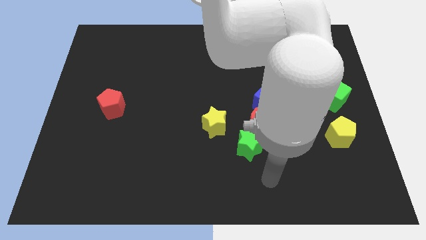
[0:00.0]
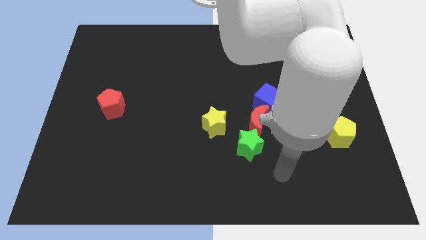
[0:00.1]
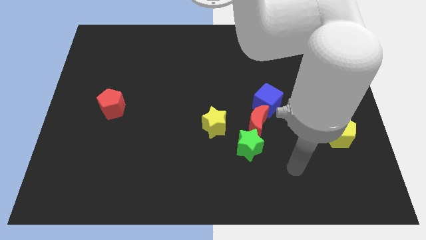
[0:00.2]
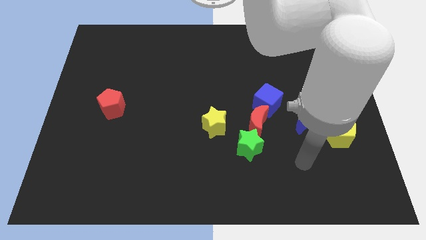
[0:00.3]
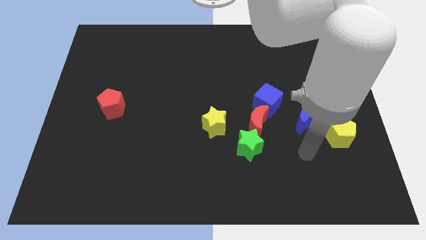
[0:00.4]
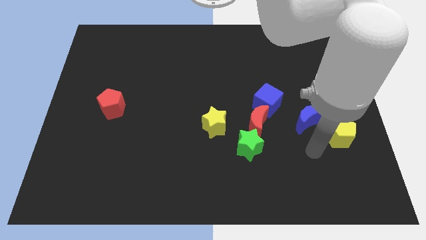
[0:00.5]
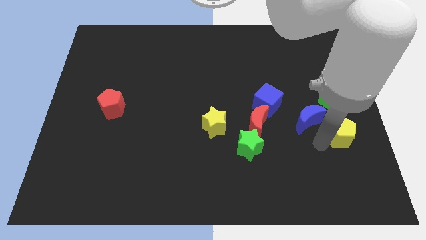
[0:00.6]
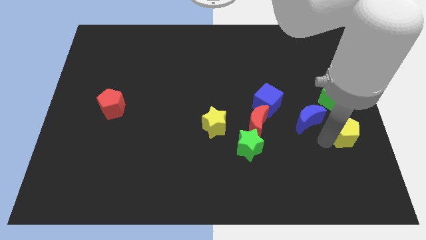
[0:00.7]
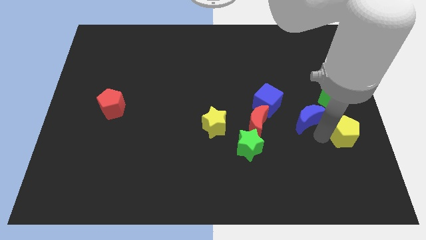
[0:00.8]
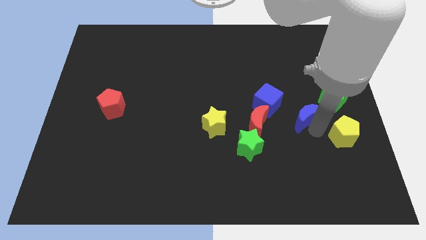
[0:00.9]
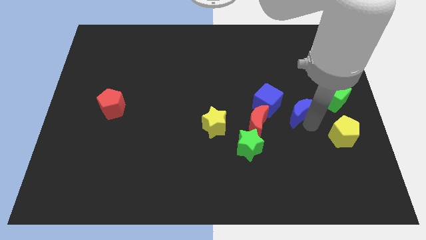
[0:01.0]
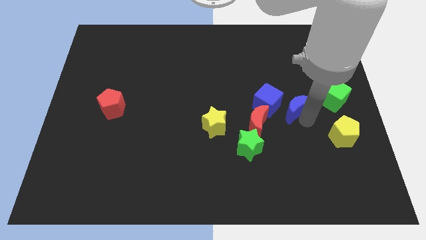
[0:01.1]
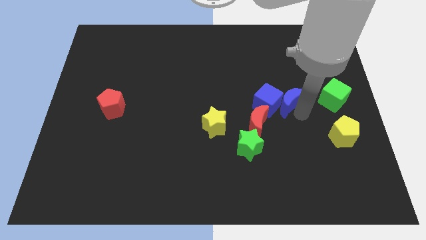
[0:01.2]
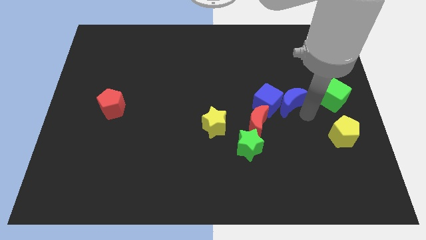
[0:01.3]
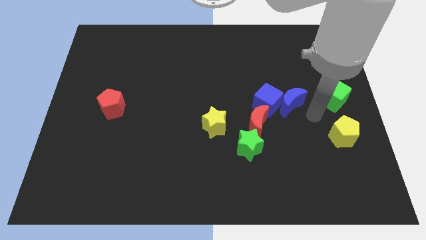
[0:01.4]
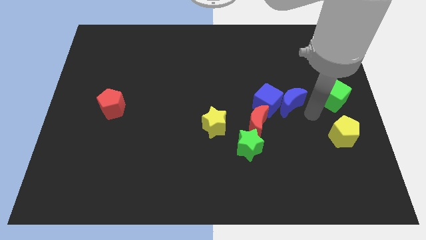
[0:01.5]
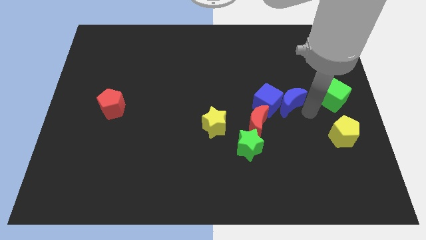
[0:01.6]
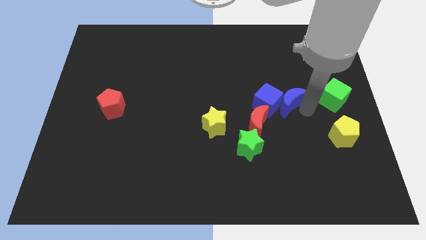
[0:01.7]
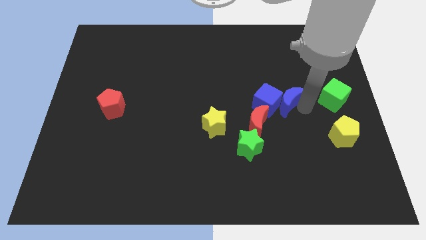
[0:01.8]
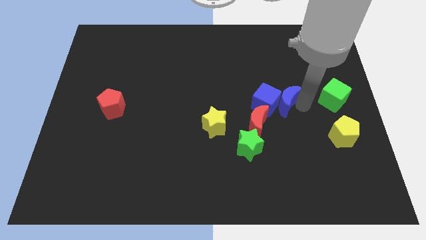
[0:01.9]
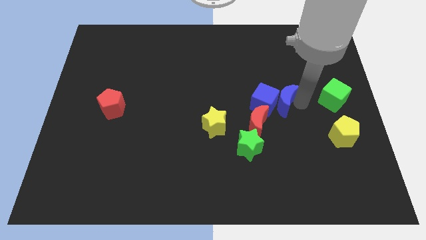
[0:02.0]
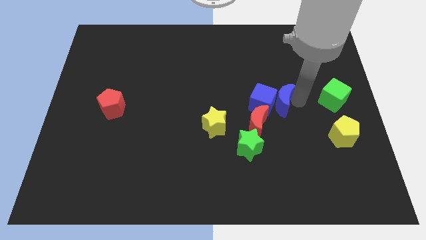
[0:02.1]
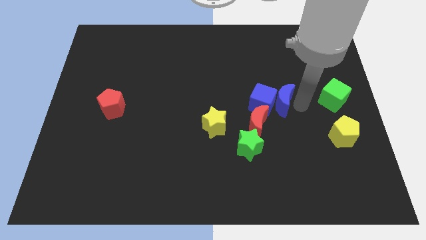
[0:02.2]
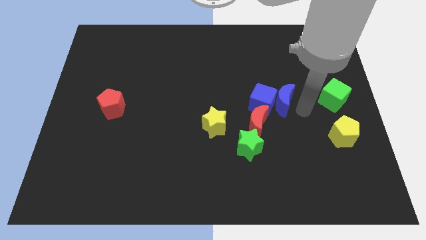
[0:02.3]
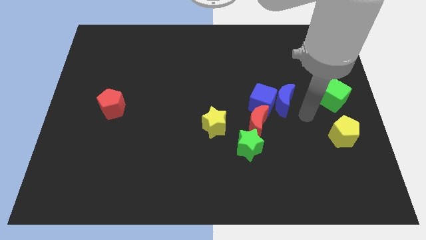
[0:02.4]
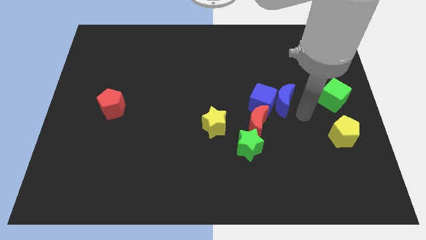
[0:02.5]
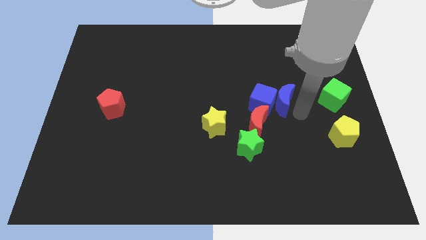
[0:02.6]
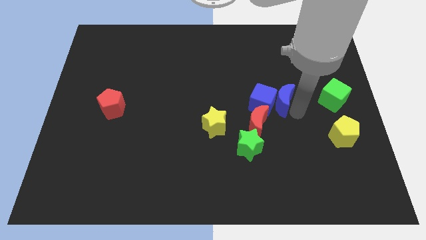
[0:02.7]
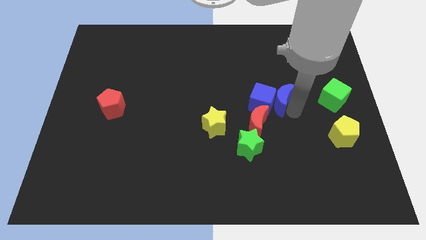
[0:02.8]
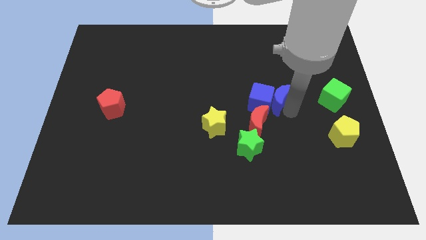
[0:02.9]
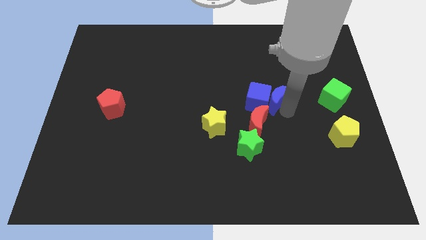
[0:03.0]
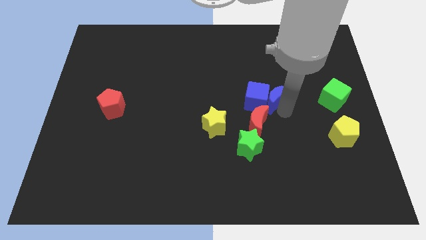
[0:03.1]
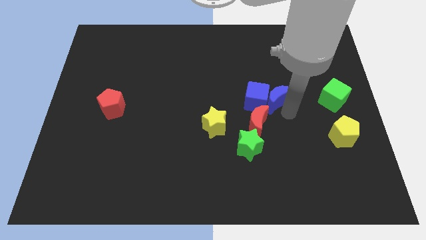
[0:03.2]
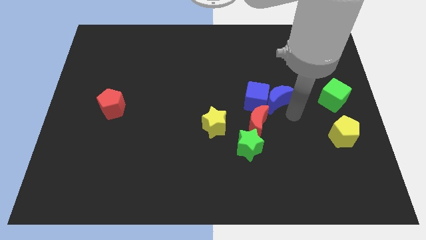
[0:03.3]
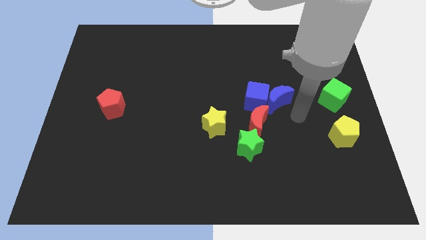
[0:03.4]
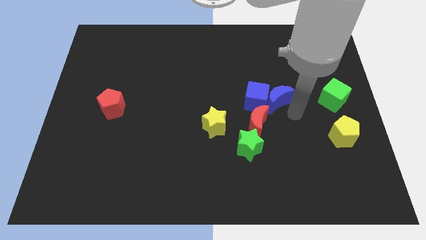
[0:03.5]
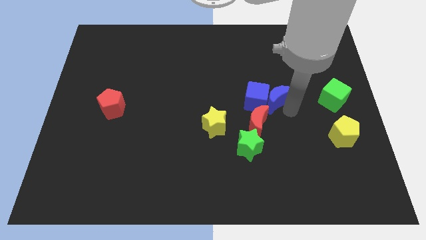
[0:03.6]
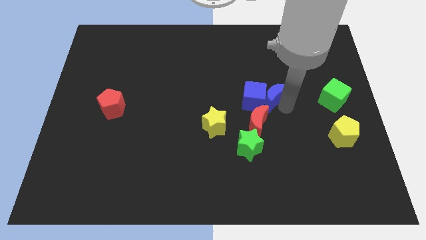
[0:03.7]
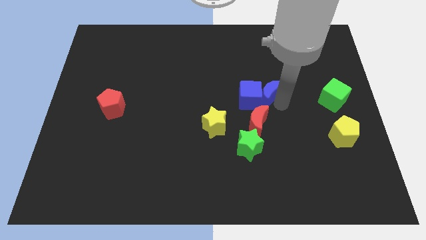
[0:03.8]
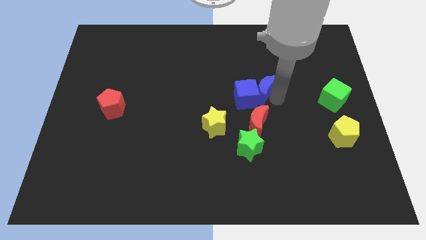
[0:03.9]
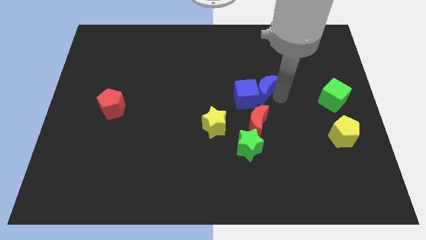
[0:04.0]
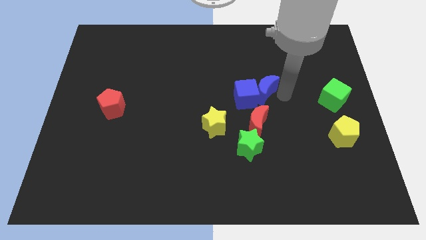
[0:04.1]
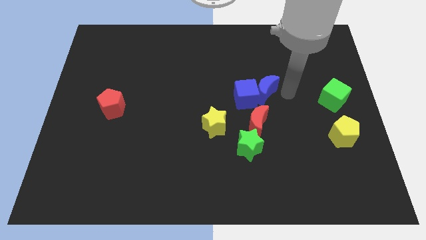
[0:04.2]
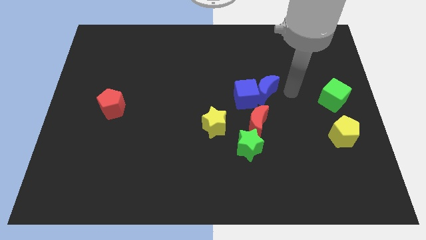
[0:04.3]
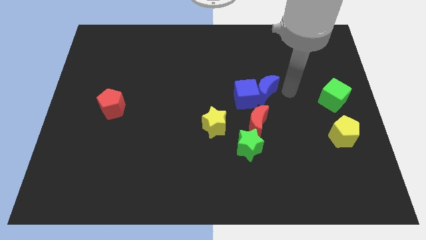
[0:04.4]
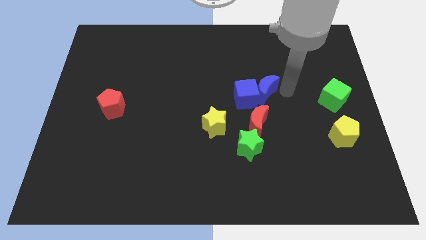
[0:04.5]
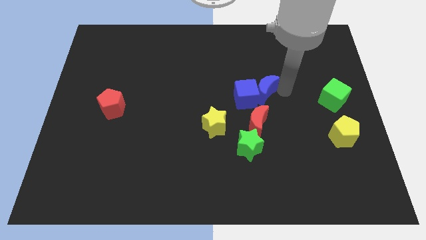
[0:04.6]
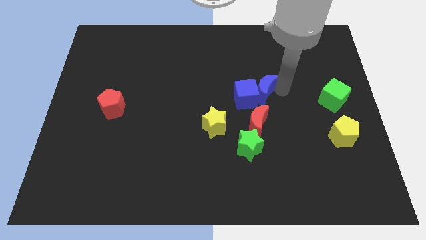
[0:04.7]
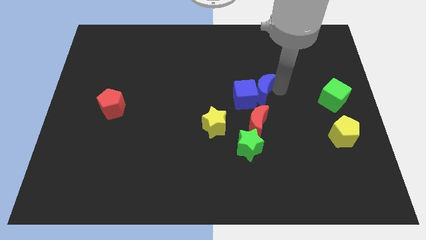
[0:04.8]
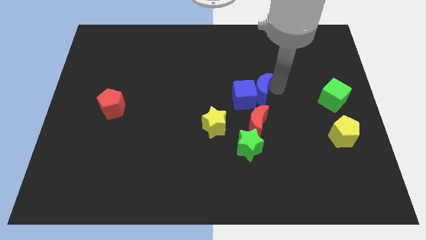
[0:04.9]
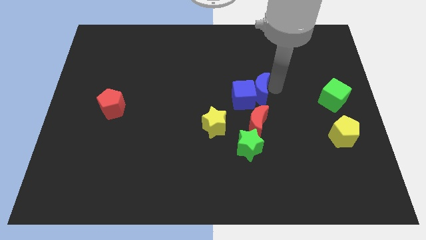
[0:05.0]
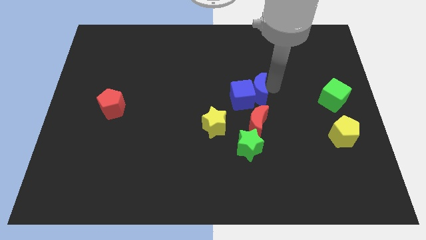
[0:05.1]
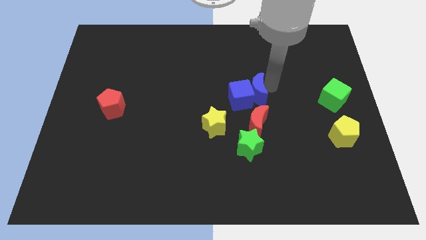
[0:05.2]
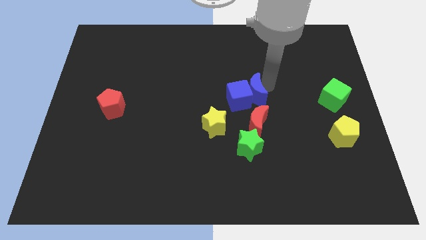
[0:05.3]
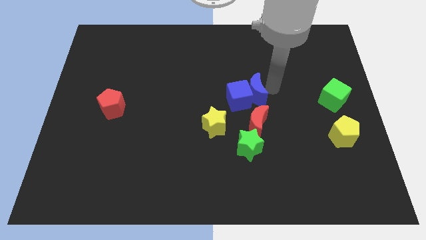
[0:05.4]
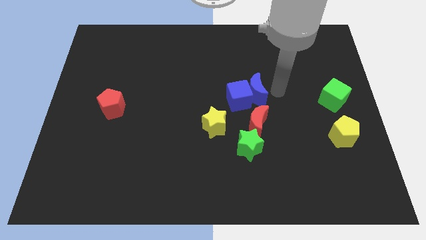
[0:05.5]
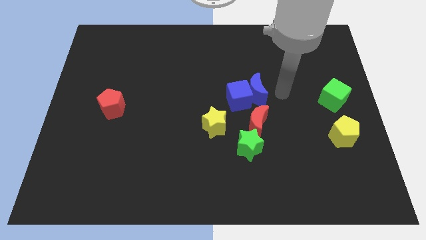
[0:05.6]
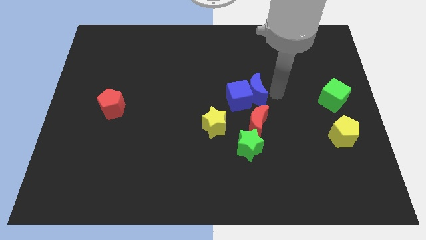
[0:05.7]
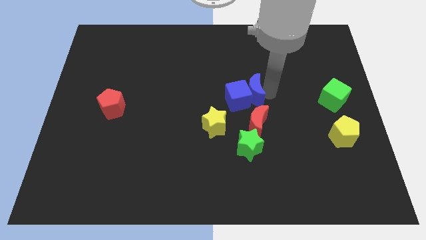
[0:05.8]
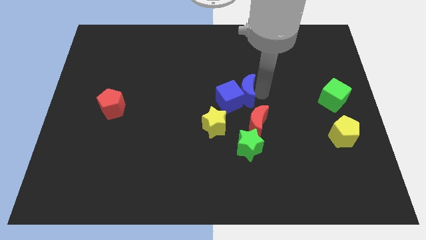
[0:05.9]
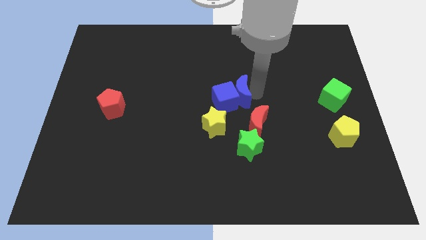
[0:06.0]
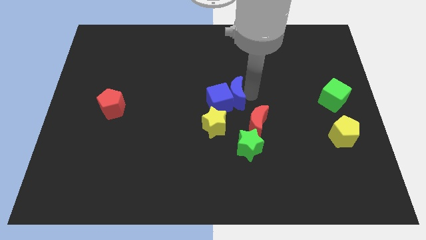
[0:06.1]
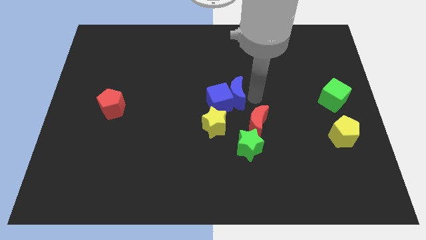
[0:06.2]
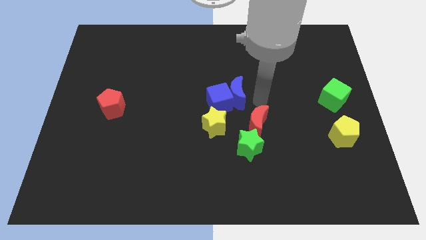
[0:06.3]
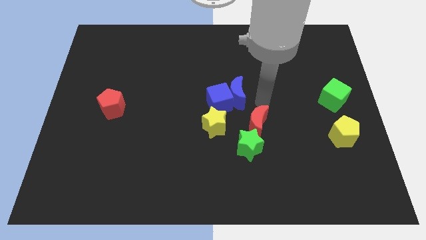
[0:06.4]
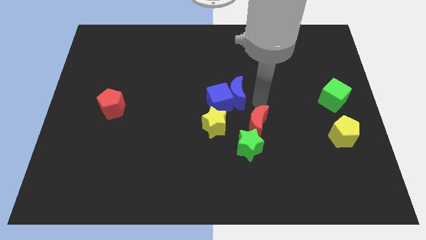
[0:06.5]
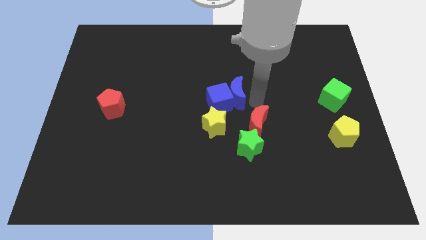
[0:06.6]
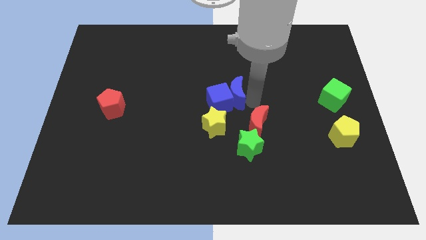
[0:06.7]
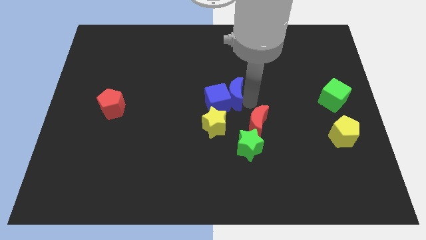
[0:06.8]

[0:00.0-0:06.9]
push the blue moon to the top of the yellow star

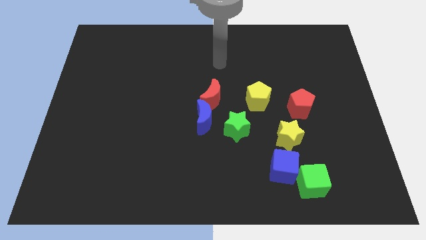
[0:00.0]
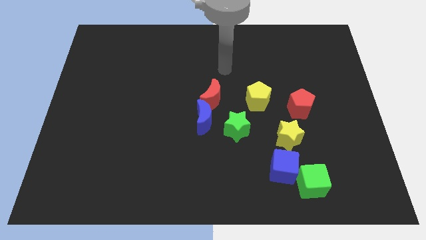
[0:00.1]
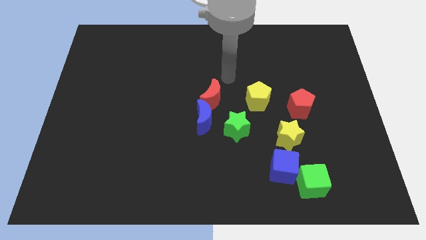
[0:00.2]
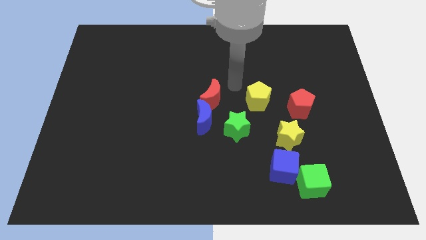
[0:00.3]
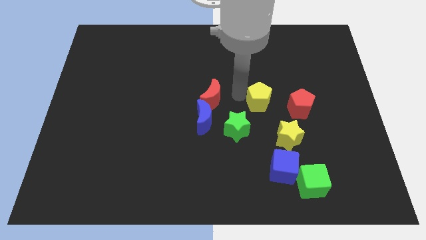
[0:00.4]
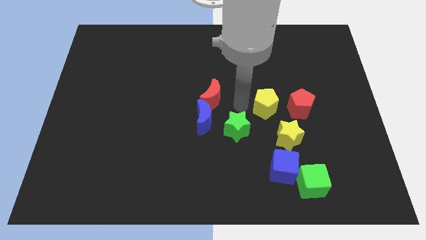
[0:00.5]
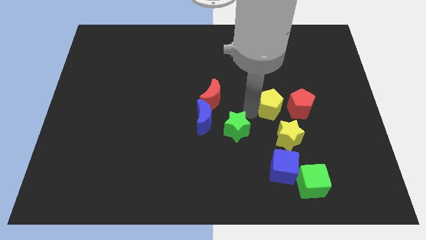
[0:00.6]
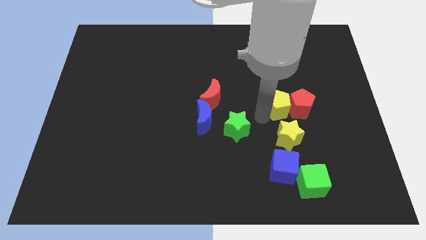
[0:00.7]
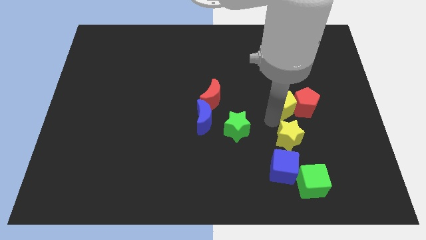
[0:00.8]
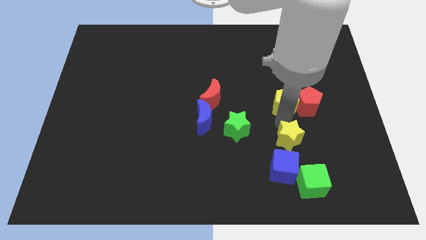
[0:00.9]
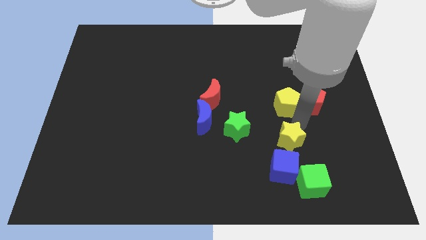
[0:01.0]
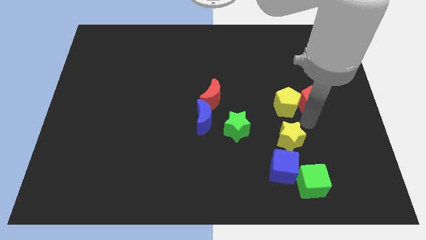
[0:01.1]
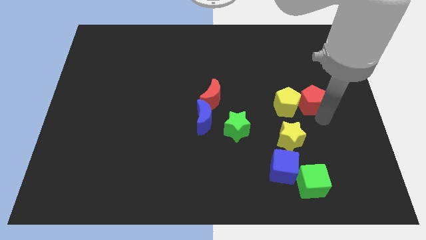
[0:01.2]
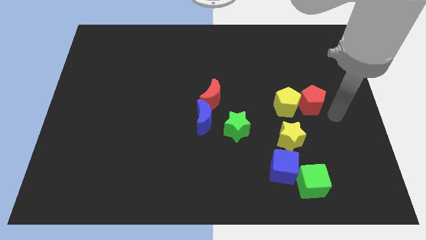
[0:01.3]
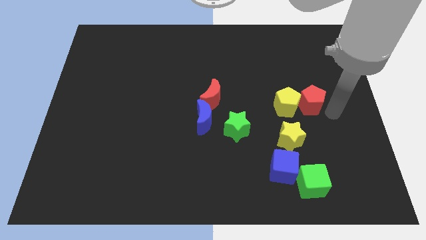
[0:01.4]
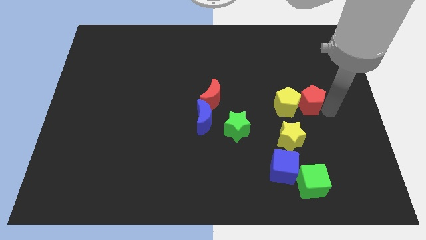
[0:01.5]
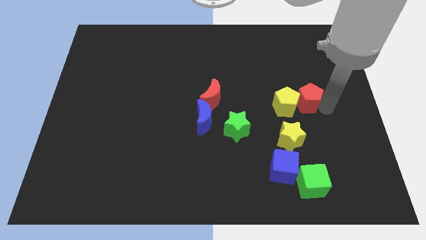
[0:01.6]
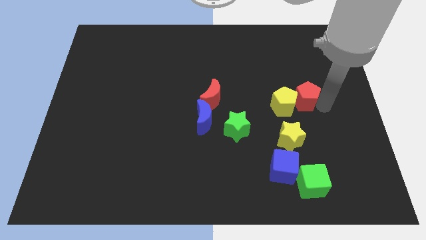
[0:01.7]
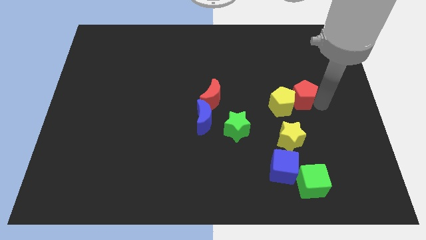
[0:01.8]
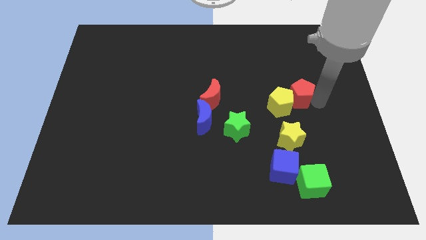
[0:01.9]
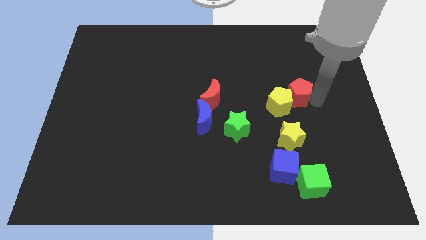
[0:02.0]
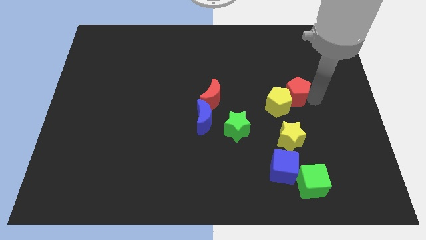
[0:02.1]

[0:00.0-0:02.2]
push the red pentagon to the top of the yellow pentagon
